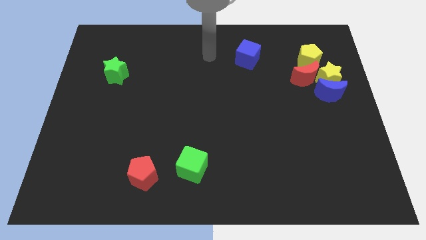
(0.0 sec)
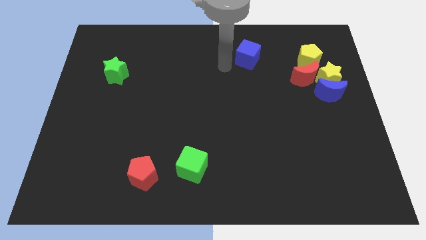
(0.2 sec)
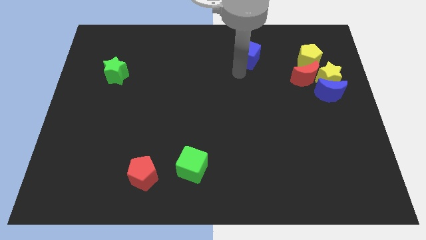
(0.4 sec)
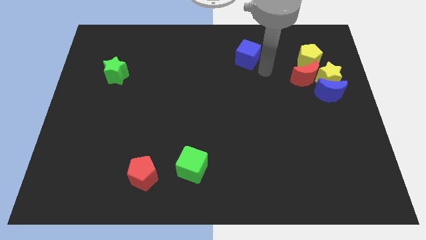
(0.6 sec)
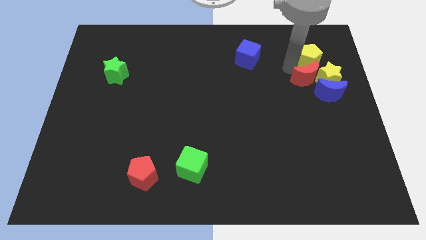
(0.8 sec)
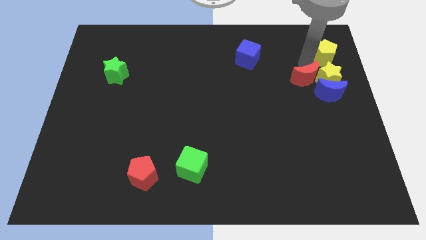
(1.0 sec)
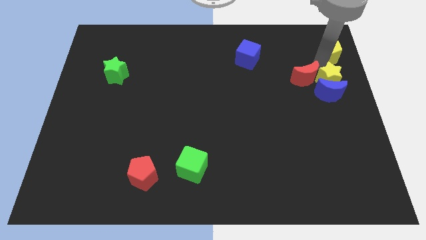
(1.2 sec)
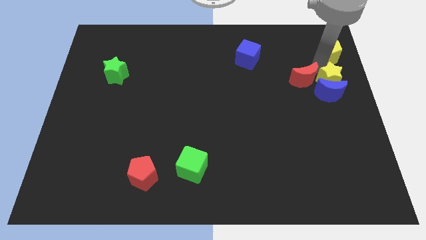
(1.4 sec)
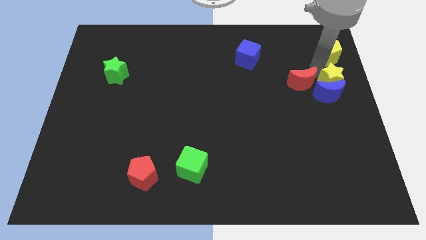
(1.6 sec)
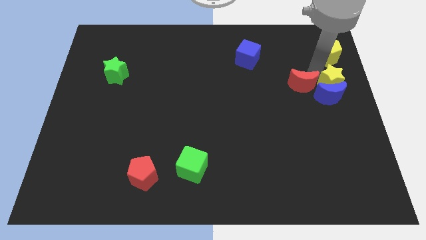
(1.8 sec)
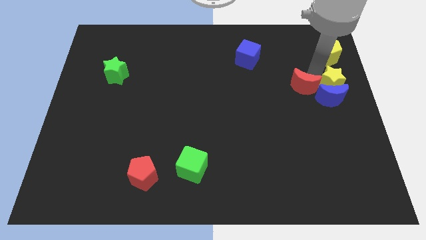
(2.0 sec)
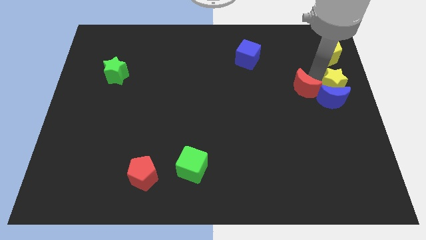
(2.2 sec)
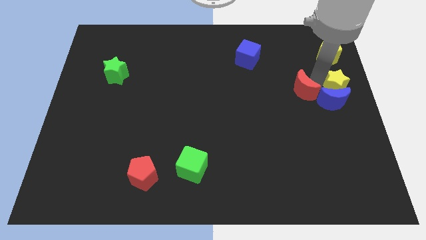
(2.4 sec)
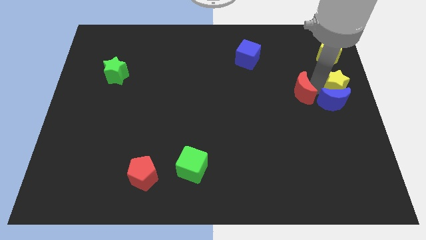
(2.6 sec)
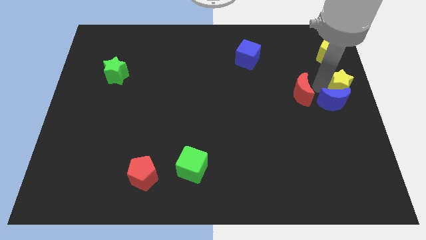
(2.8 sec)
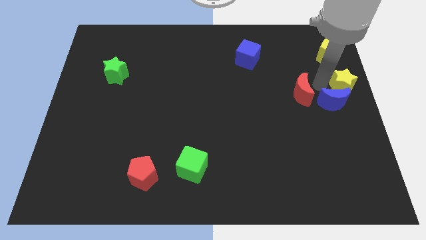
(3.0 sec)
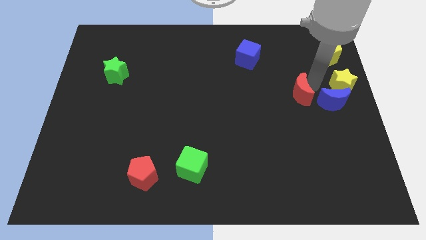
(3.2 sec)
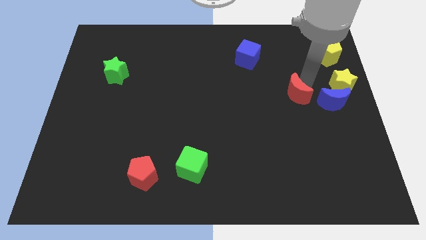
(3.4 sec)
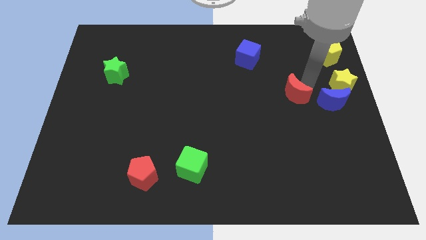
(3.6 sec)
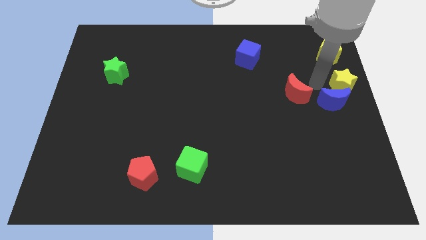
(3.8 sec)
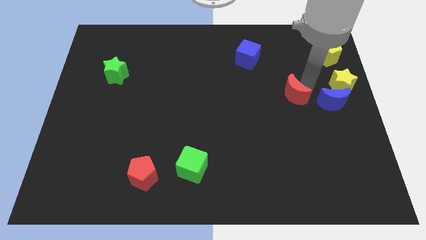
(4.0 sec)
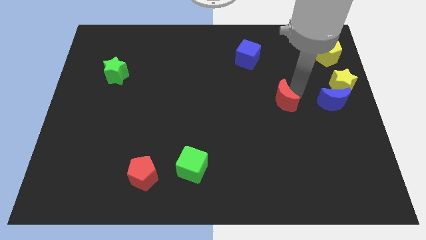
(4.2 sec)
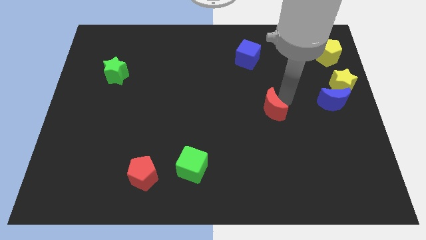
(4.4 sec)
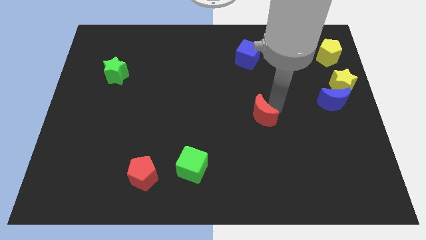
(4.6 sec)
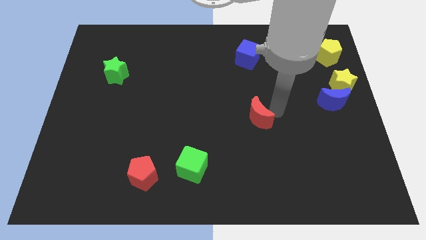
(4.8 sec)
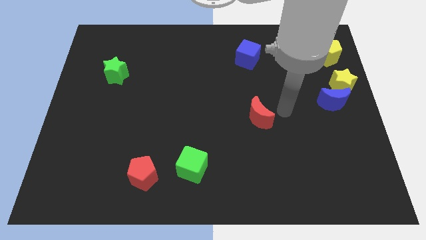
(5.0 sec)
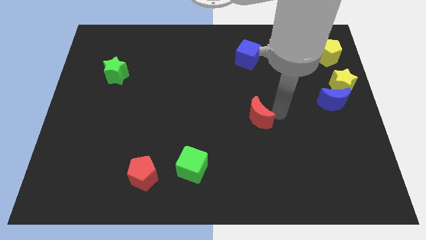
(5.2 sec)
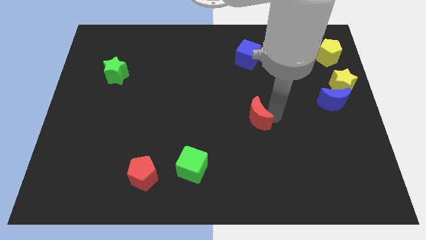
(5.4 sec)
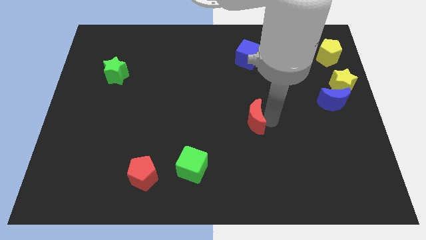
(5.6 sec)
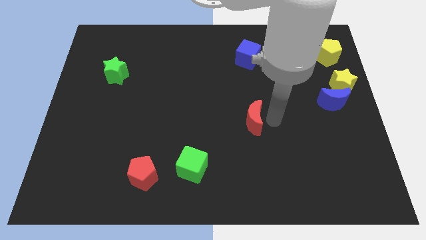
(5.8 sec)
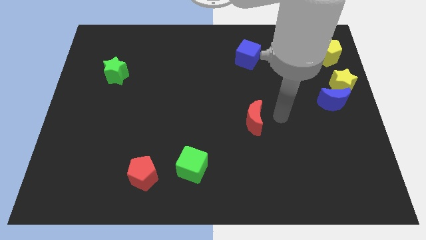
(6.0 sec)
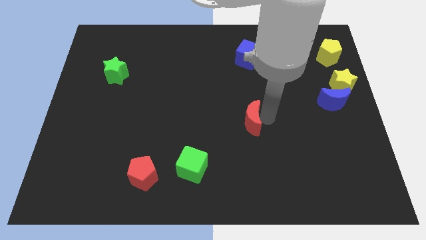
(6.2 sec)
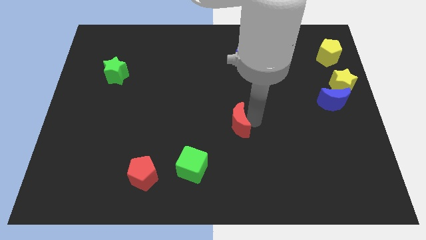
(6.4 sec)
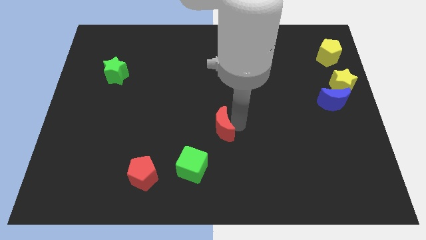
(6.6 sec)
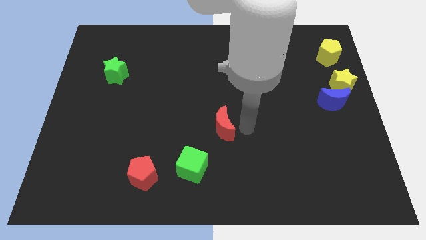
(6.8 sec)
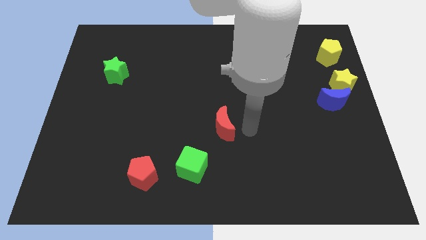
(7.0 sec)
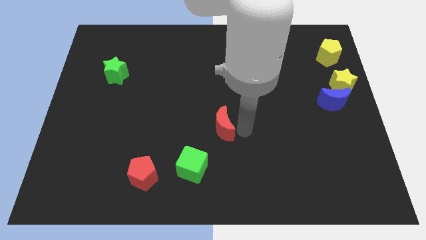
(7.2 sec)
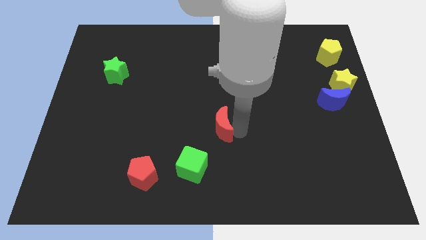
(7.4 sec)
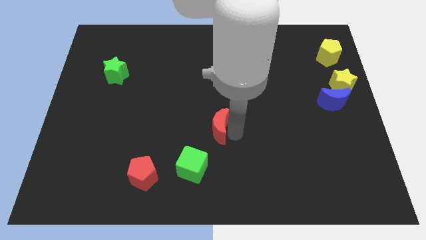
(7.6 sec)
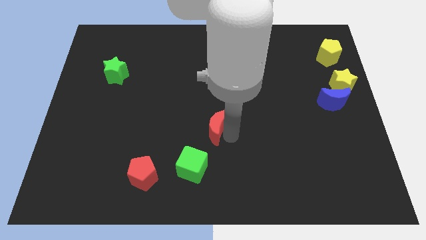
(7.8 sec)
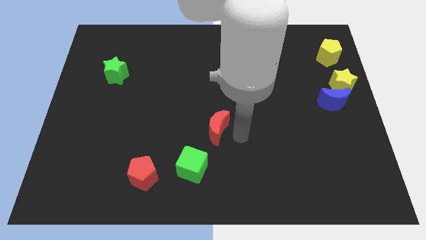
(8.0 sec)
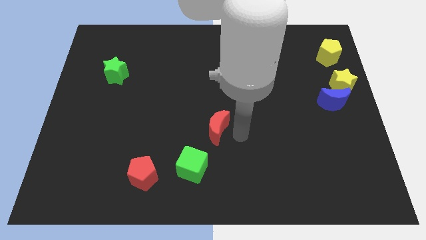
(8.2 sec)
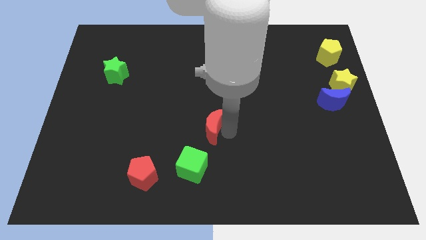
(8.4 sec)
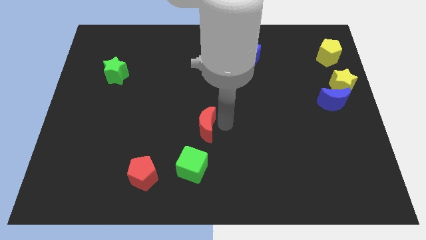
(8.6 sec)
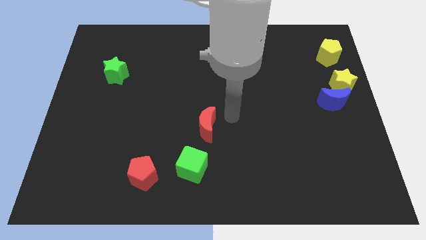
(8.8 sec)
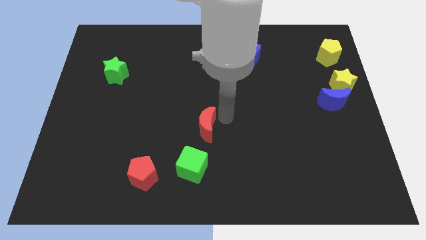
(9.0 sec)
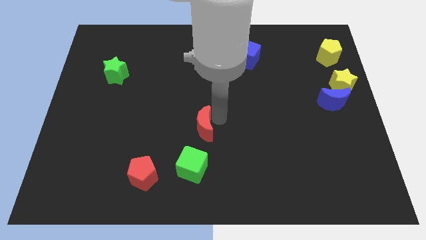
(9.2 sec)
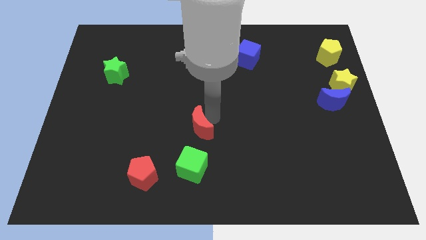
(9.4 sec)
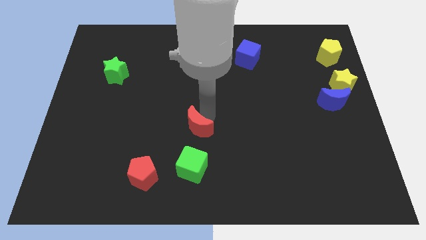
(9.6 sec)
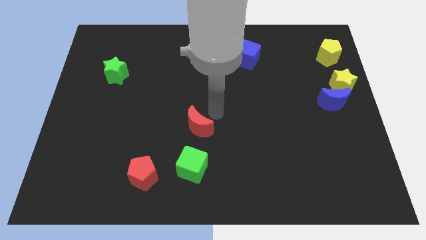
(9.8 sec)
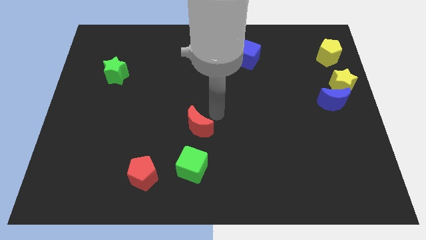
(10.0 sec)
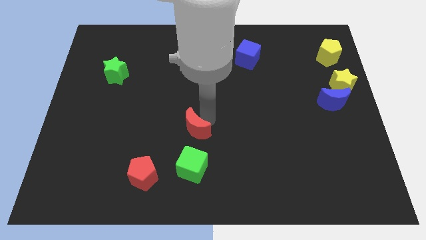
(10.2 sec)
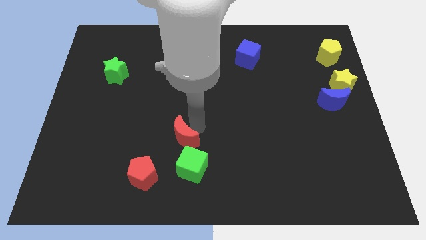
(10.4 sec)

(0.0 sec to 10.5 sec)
move the red moon to the top left of the green cube

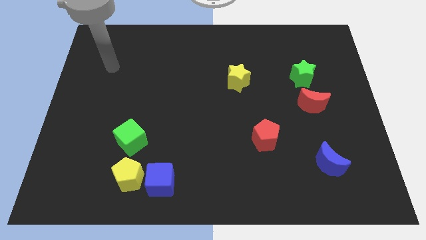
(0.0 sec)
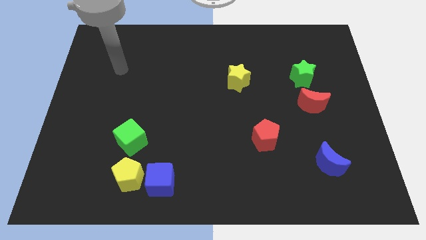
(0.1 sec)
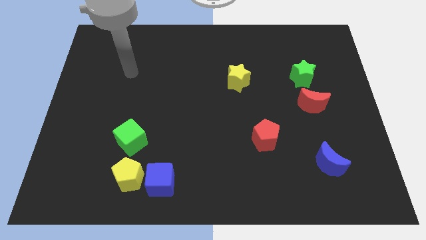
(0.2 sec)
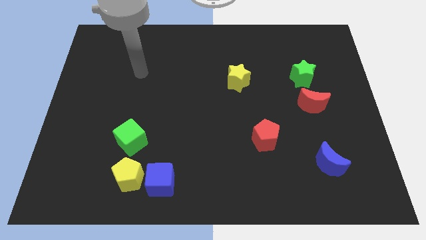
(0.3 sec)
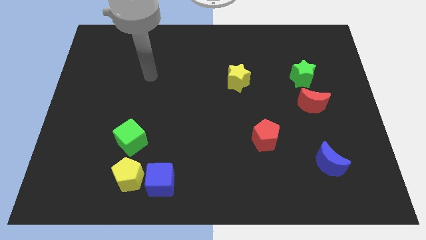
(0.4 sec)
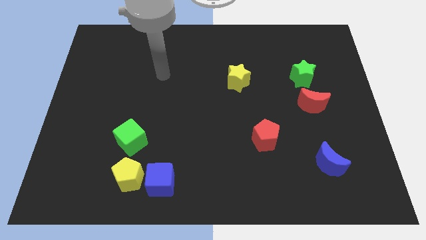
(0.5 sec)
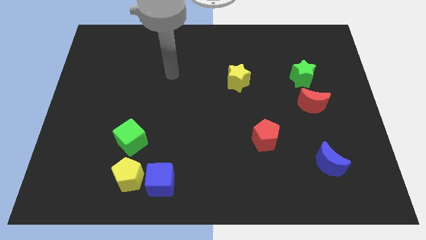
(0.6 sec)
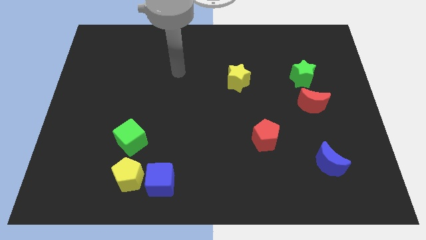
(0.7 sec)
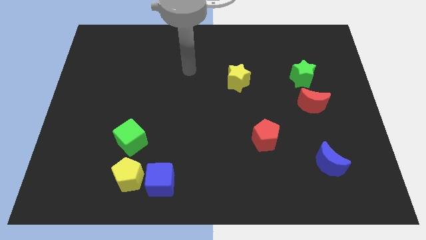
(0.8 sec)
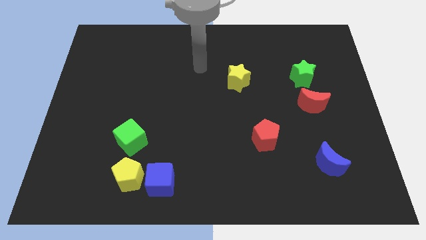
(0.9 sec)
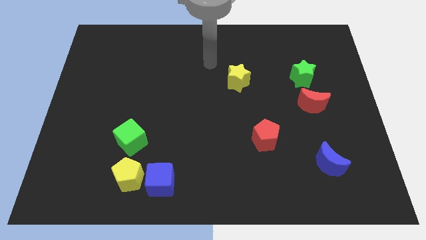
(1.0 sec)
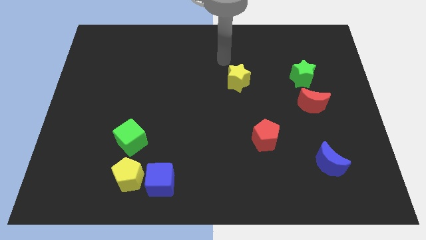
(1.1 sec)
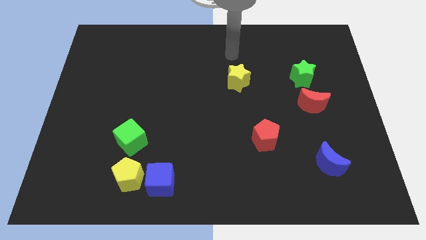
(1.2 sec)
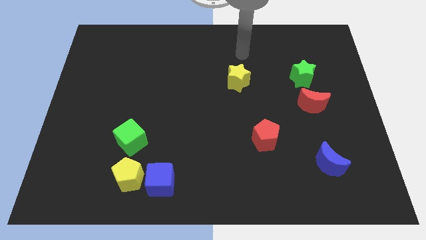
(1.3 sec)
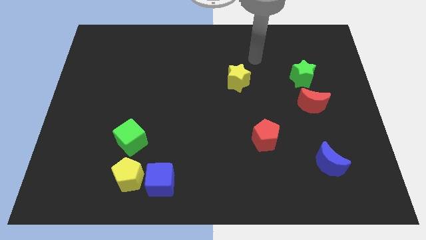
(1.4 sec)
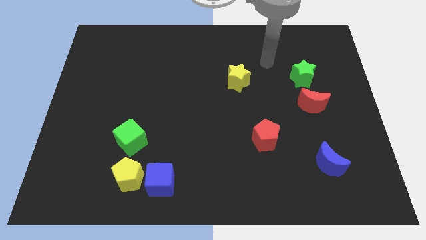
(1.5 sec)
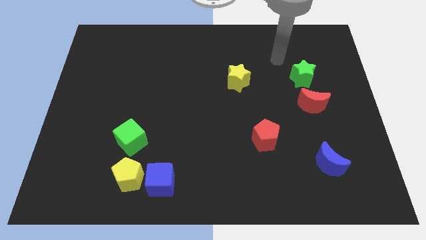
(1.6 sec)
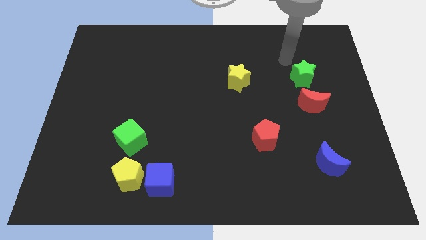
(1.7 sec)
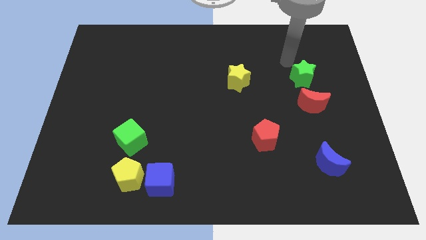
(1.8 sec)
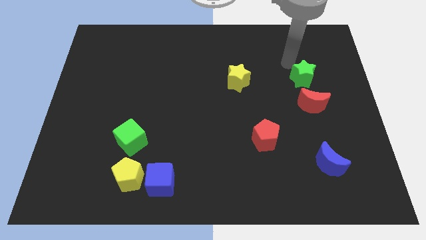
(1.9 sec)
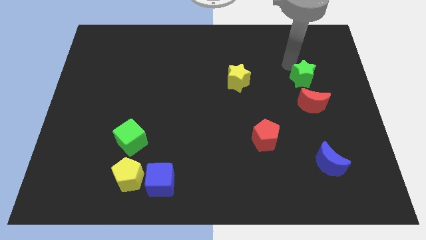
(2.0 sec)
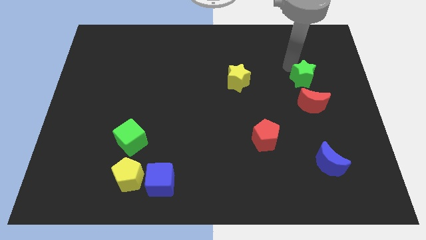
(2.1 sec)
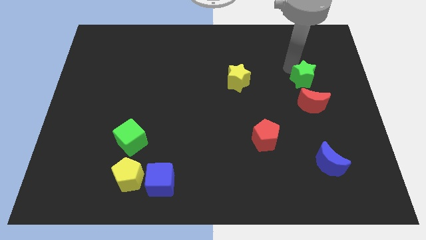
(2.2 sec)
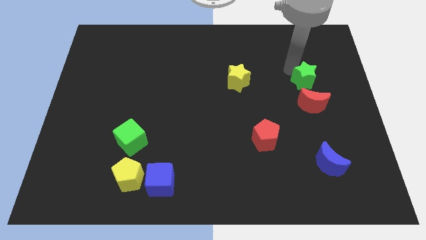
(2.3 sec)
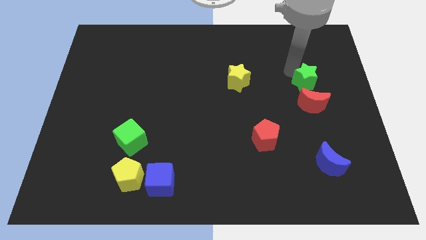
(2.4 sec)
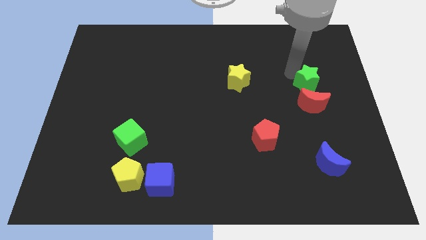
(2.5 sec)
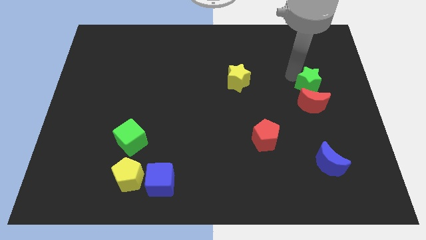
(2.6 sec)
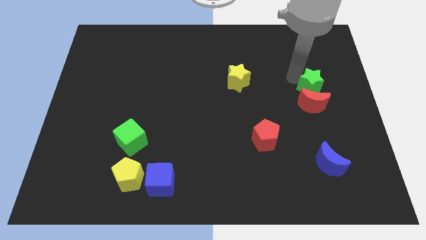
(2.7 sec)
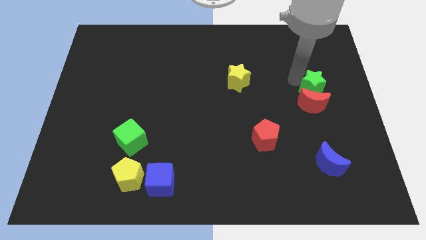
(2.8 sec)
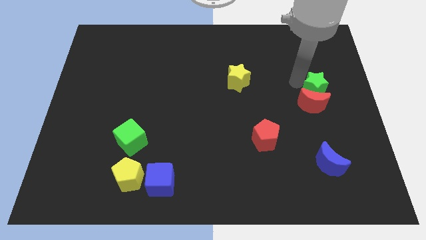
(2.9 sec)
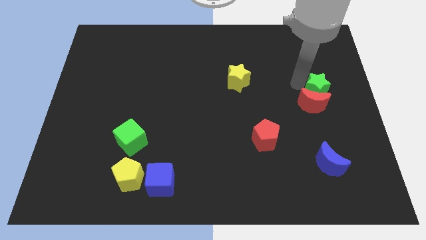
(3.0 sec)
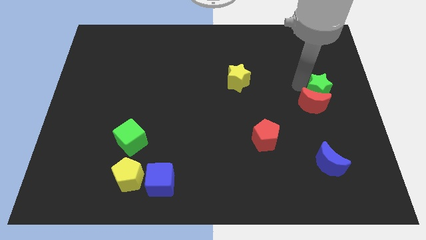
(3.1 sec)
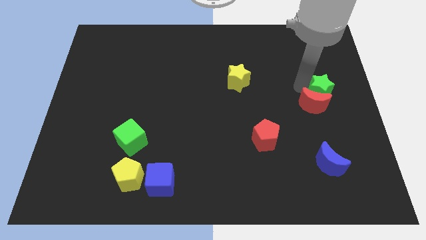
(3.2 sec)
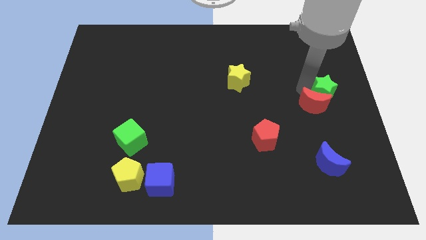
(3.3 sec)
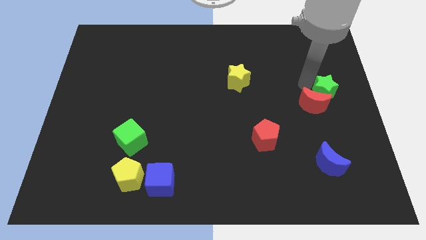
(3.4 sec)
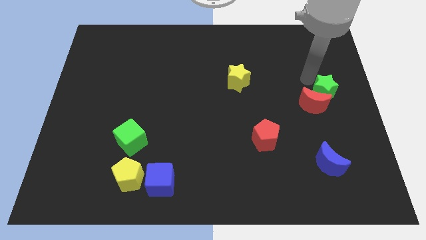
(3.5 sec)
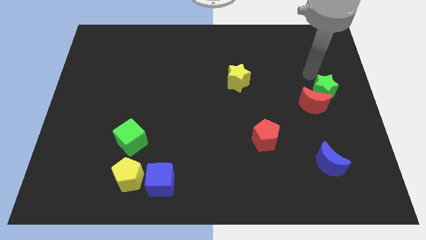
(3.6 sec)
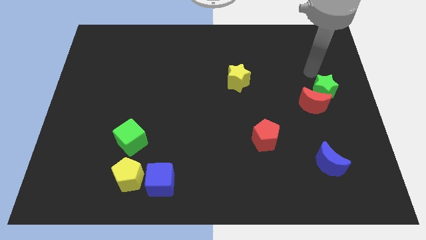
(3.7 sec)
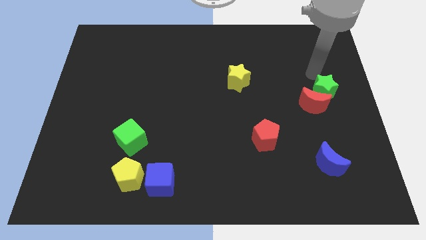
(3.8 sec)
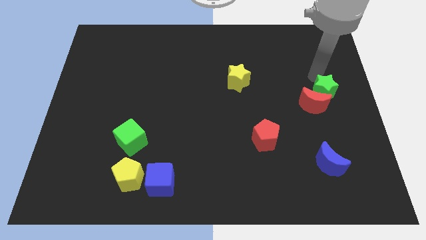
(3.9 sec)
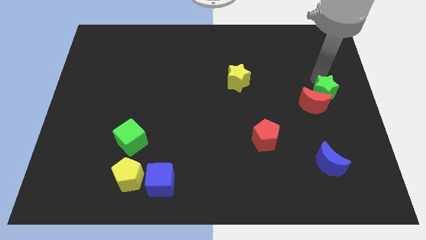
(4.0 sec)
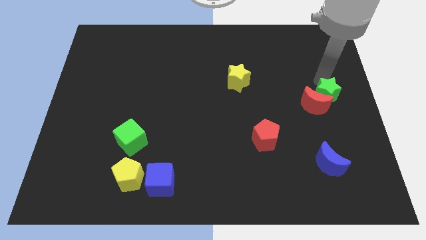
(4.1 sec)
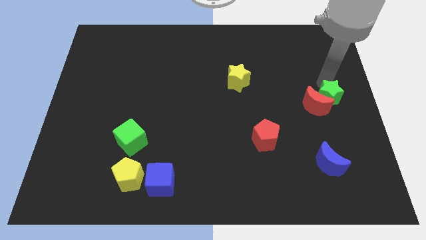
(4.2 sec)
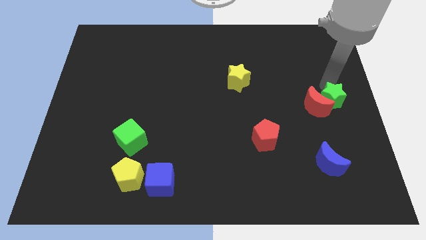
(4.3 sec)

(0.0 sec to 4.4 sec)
move the green star diagonally down and to the right of the red moon
